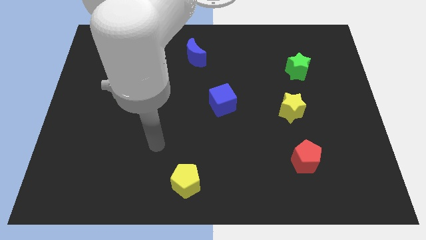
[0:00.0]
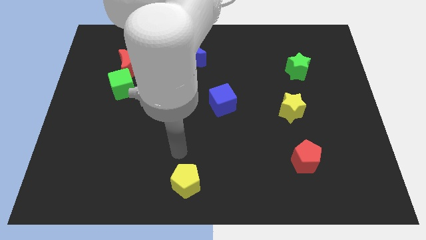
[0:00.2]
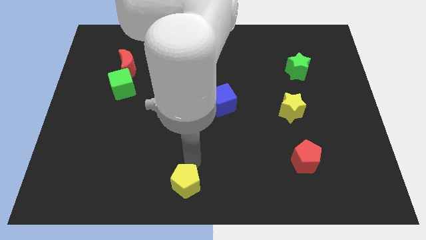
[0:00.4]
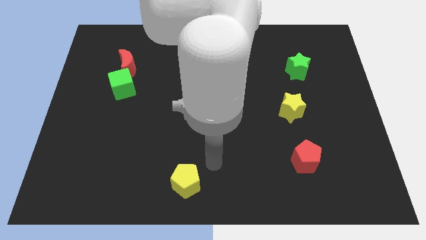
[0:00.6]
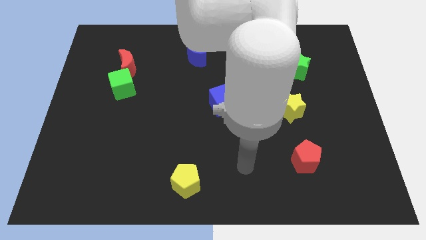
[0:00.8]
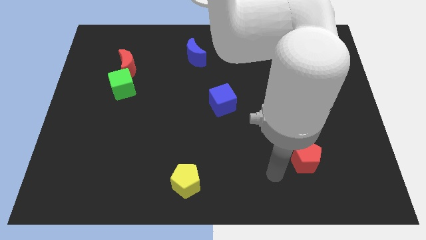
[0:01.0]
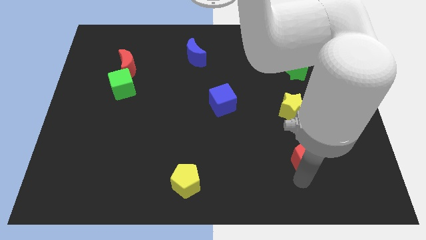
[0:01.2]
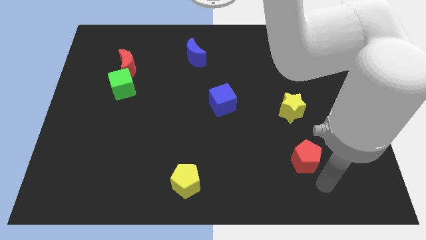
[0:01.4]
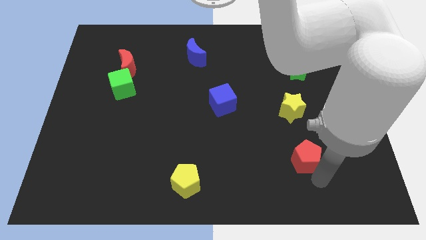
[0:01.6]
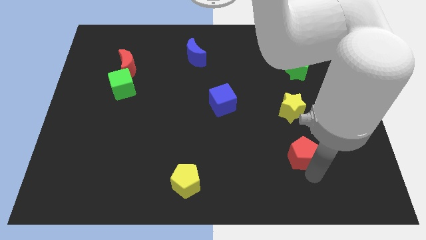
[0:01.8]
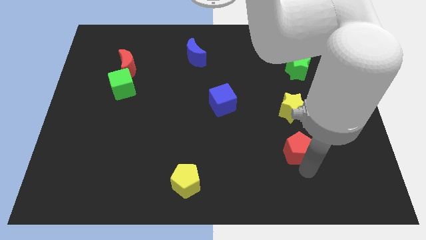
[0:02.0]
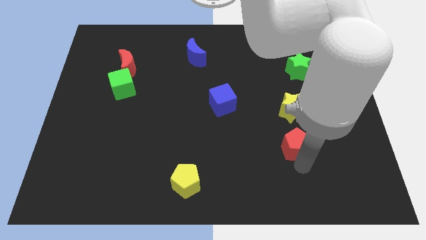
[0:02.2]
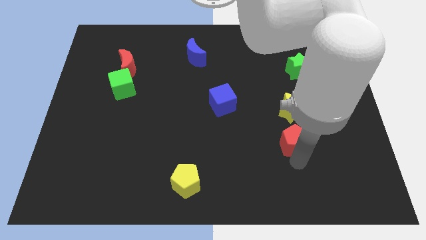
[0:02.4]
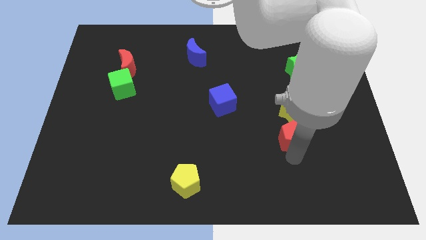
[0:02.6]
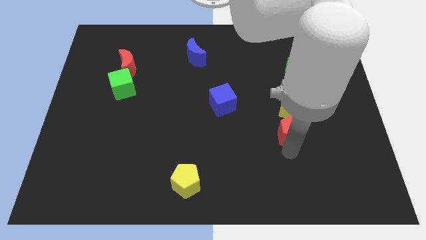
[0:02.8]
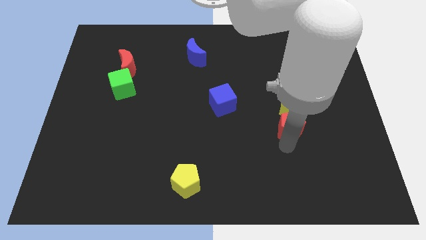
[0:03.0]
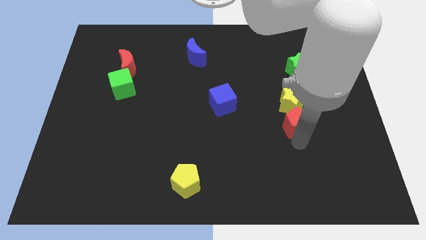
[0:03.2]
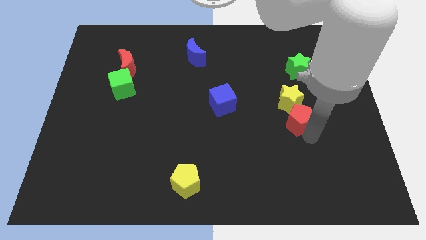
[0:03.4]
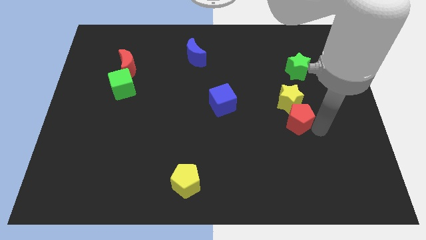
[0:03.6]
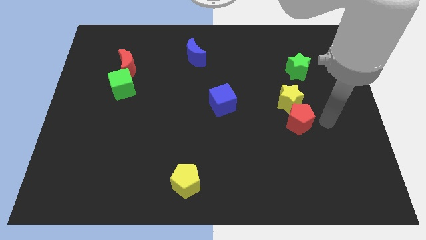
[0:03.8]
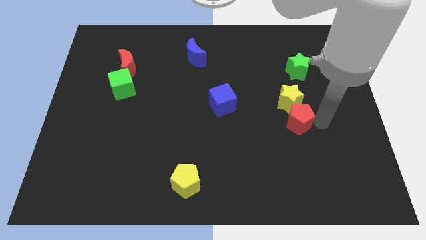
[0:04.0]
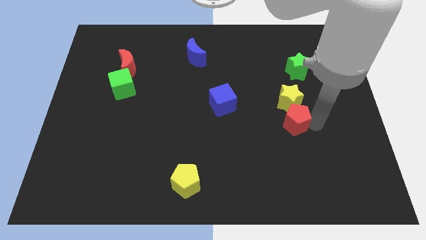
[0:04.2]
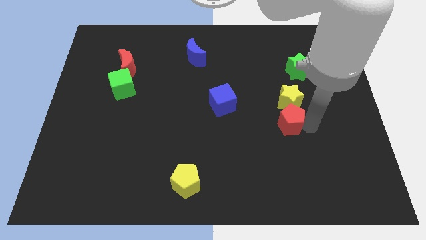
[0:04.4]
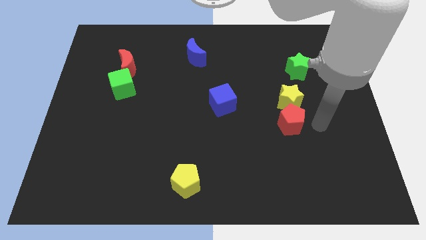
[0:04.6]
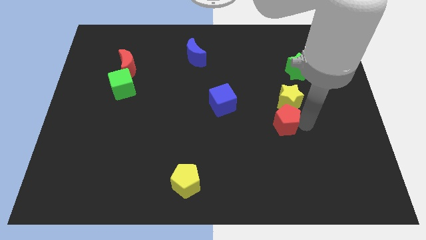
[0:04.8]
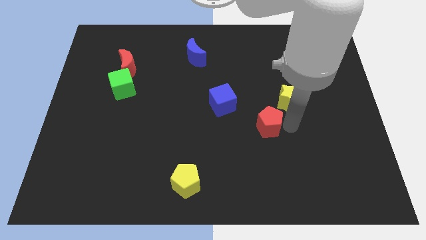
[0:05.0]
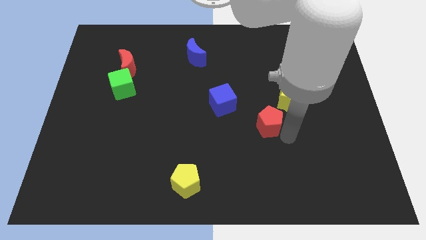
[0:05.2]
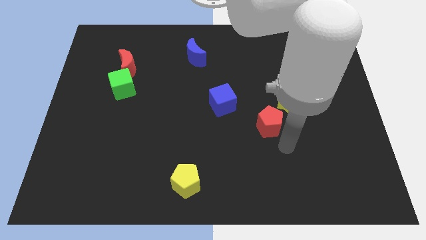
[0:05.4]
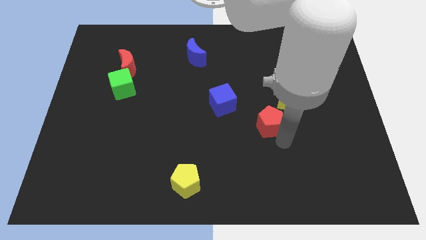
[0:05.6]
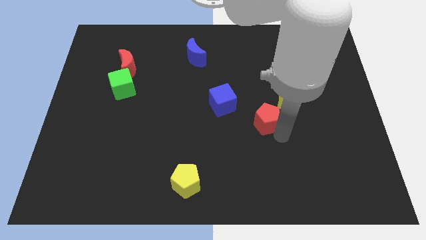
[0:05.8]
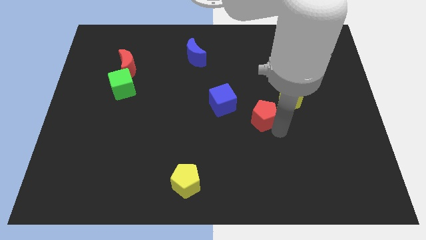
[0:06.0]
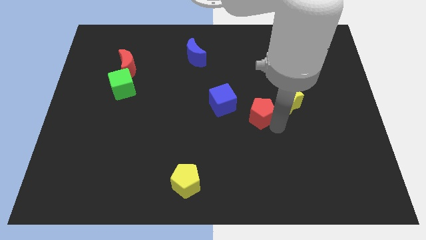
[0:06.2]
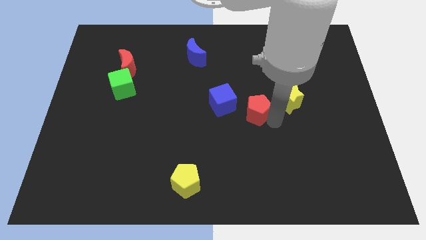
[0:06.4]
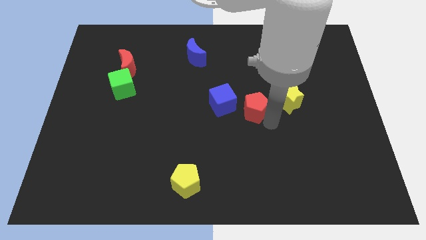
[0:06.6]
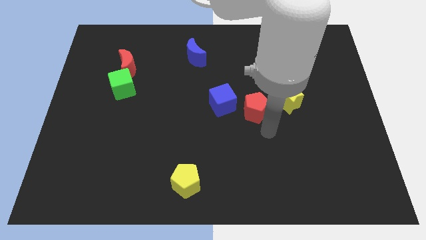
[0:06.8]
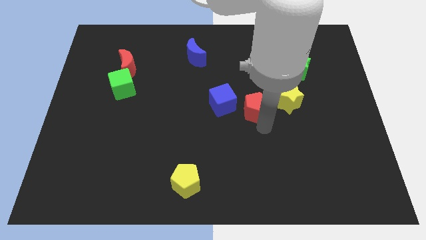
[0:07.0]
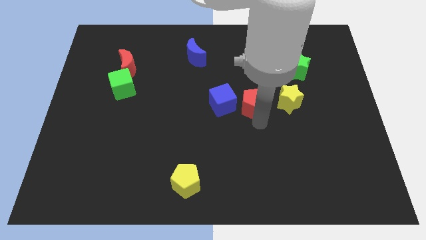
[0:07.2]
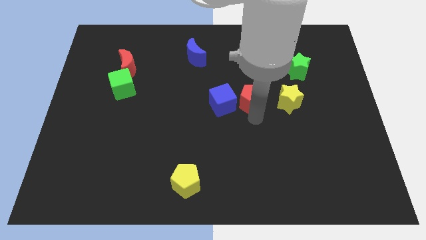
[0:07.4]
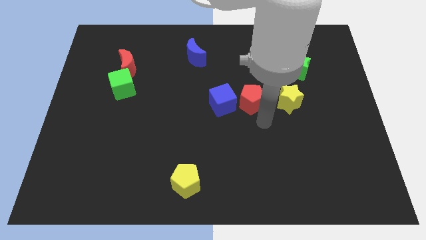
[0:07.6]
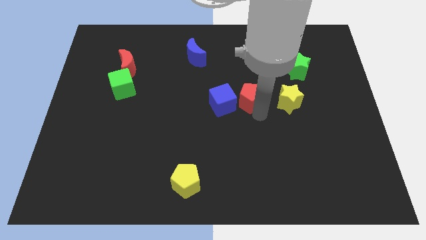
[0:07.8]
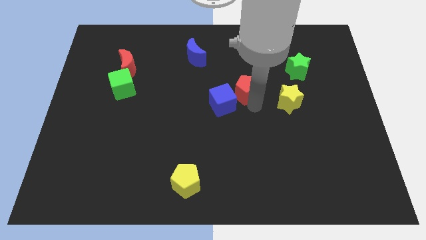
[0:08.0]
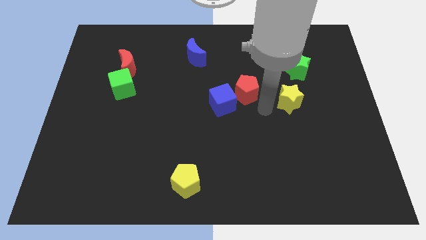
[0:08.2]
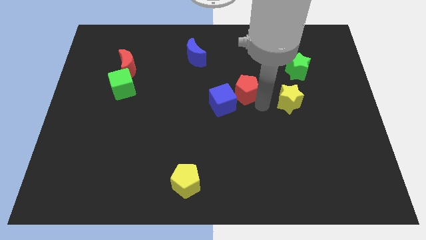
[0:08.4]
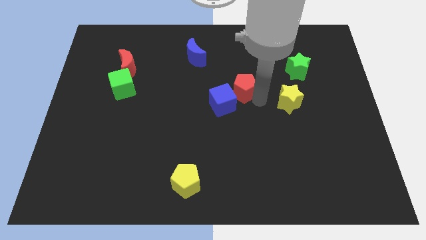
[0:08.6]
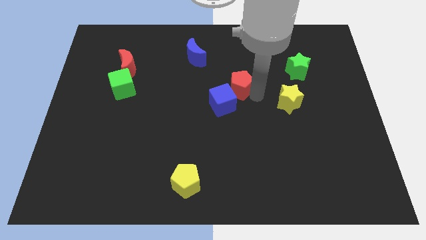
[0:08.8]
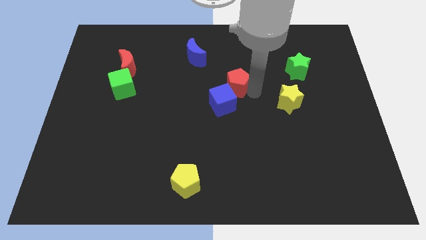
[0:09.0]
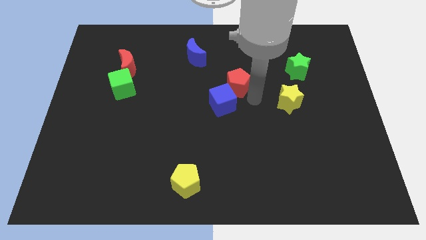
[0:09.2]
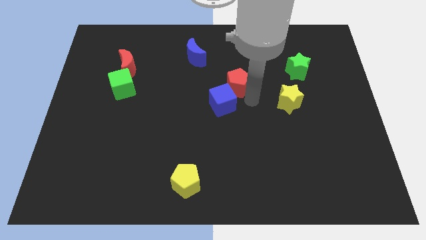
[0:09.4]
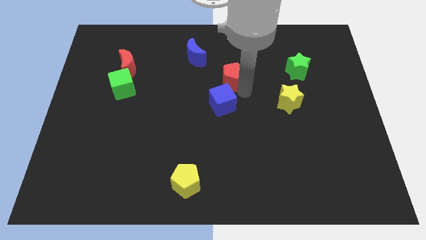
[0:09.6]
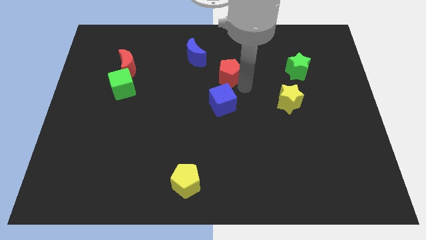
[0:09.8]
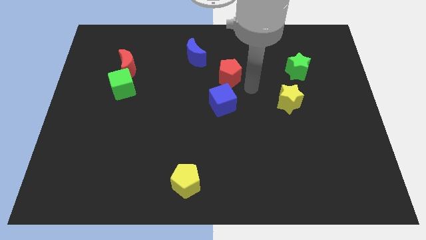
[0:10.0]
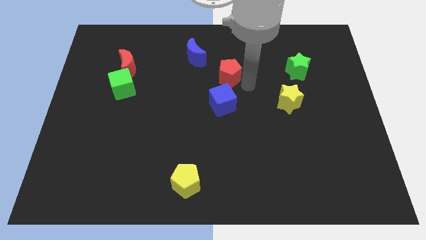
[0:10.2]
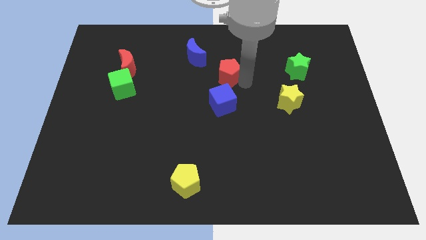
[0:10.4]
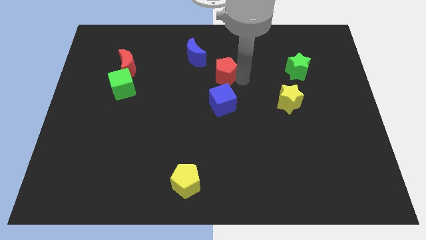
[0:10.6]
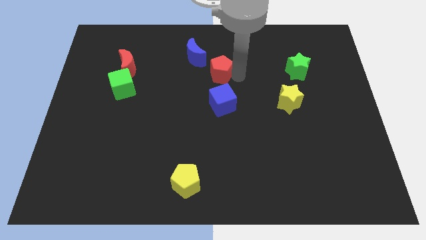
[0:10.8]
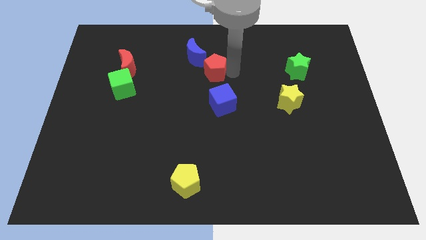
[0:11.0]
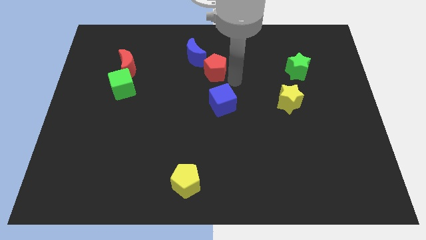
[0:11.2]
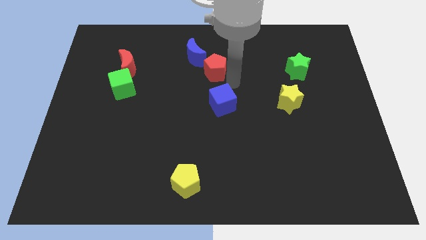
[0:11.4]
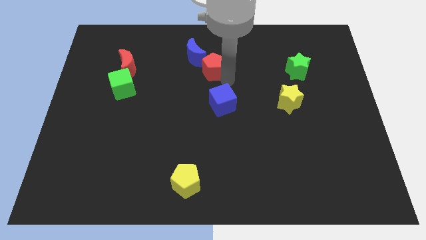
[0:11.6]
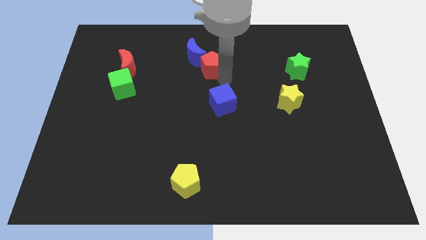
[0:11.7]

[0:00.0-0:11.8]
put the red pentagon next to the blue moon

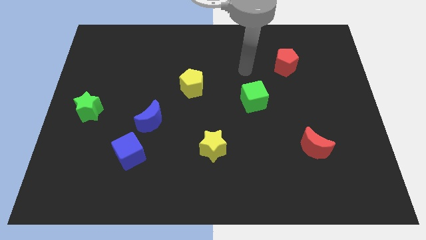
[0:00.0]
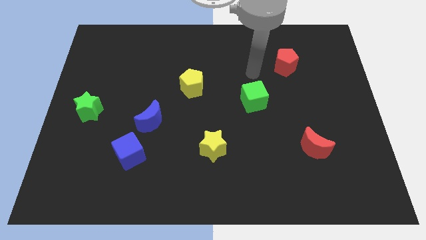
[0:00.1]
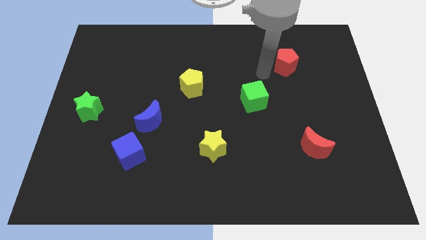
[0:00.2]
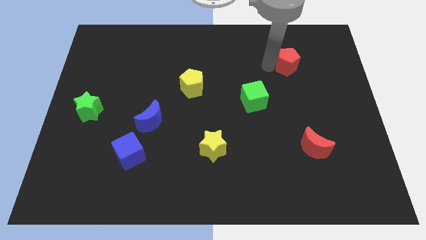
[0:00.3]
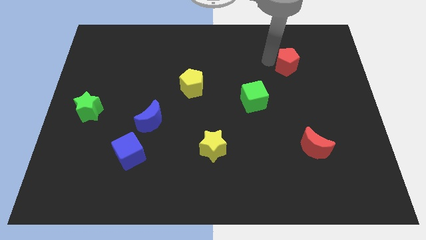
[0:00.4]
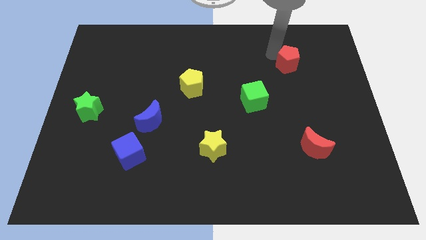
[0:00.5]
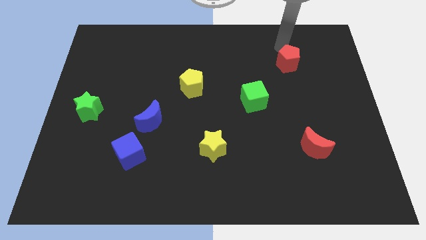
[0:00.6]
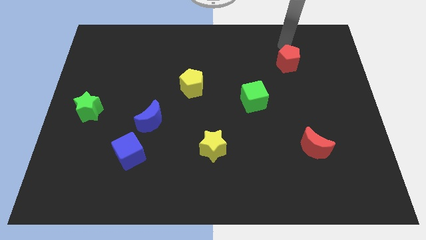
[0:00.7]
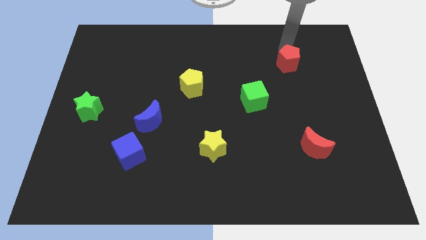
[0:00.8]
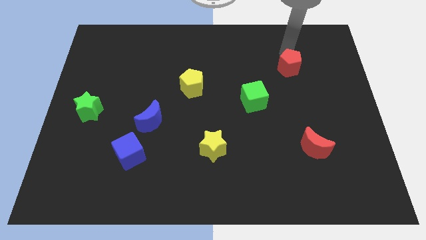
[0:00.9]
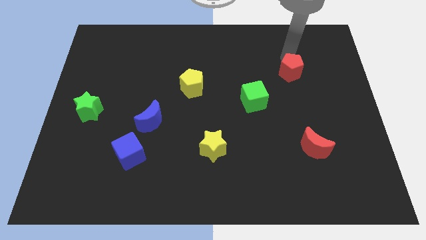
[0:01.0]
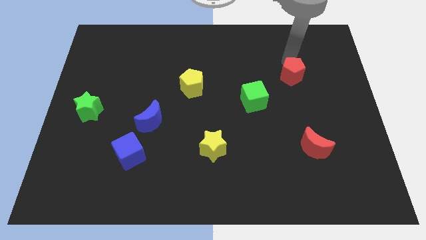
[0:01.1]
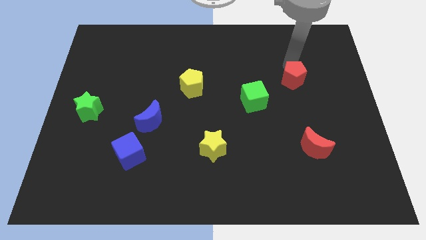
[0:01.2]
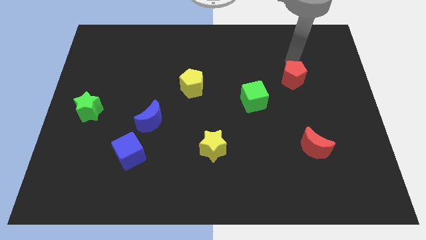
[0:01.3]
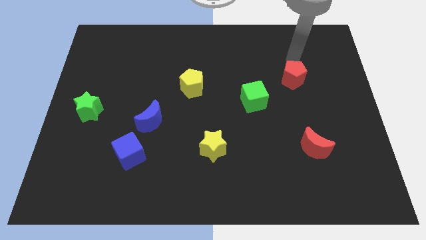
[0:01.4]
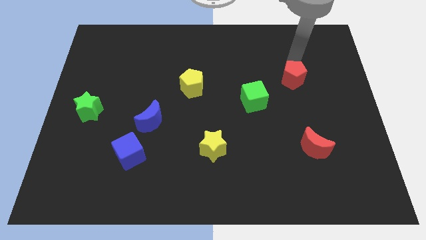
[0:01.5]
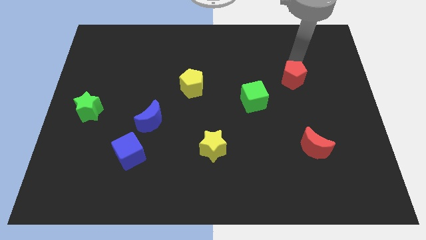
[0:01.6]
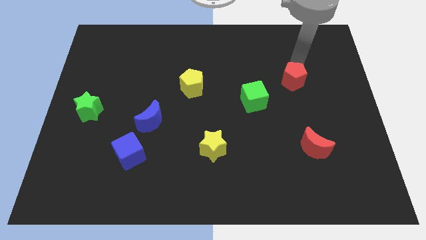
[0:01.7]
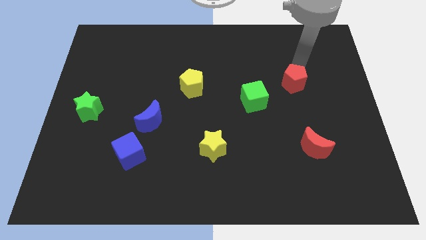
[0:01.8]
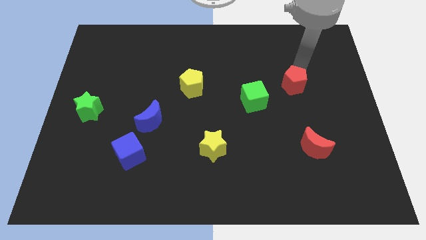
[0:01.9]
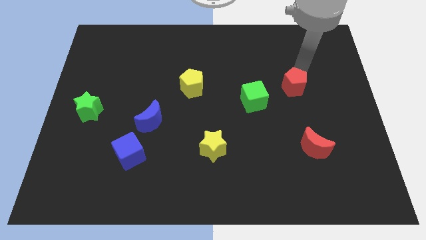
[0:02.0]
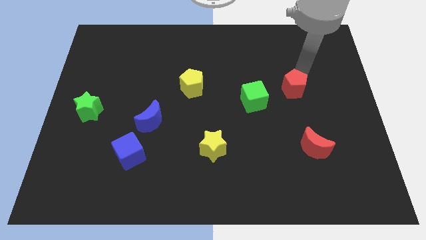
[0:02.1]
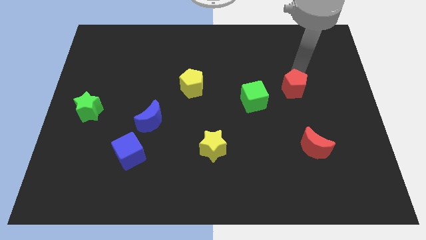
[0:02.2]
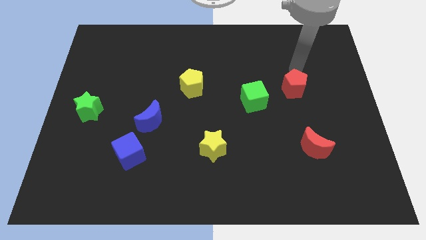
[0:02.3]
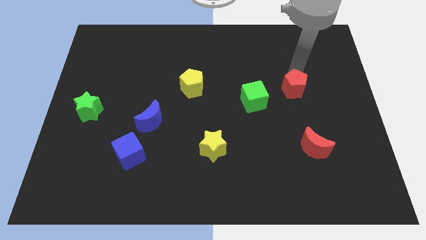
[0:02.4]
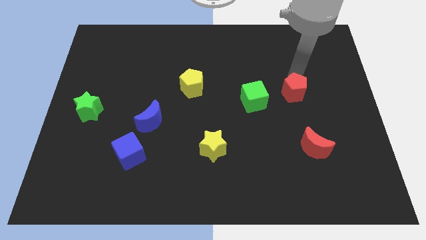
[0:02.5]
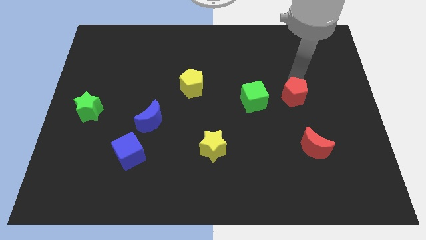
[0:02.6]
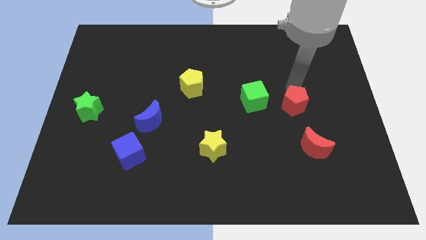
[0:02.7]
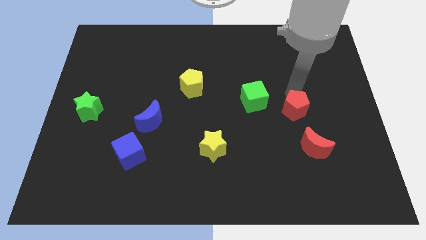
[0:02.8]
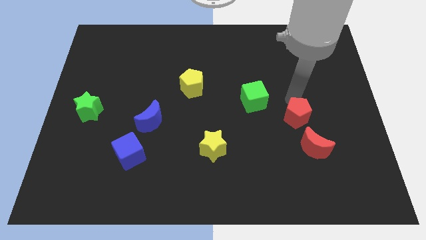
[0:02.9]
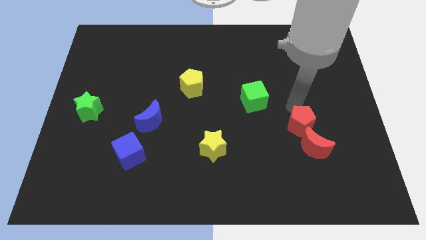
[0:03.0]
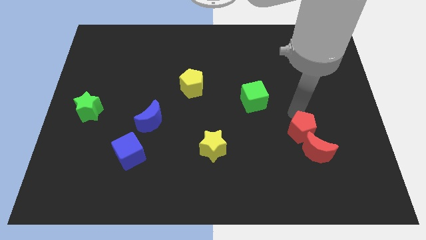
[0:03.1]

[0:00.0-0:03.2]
put the red pentagon close to the red moon
